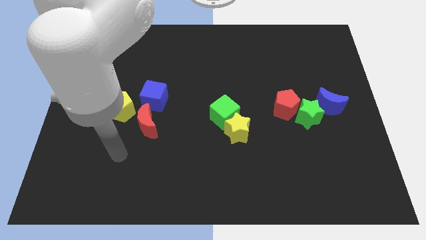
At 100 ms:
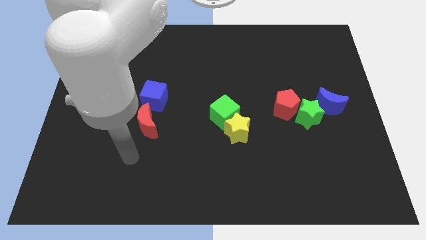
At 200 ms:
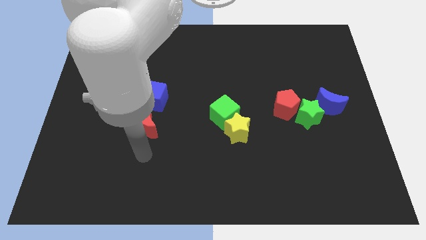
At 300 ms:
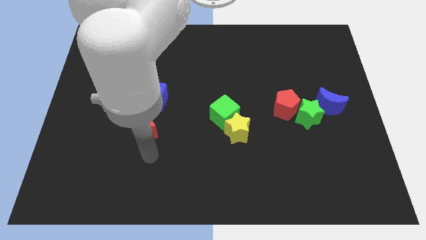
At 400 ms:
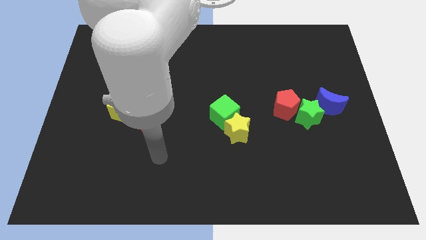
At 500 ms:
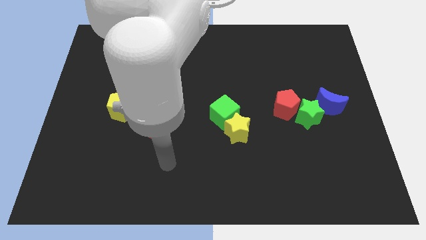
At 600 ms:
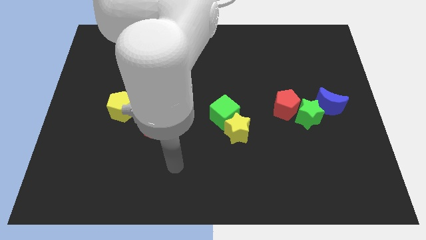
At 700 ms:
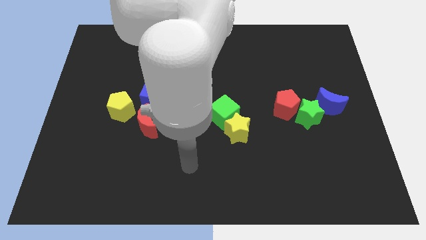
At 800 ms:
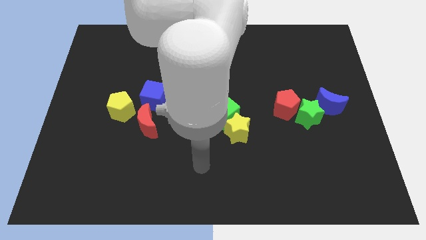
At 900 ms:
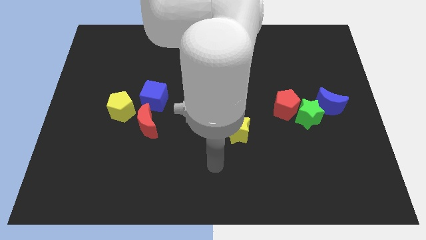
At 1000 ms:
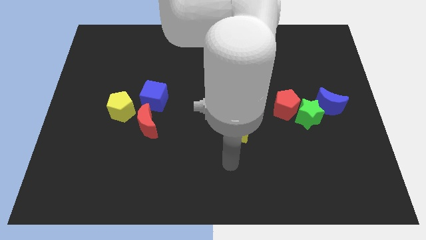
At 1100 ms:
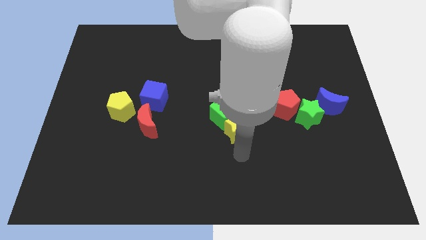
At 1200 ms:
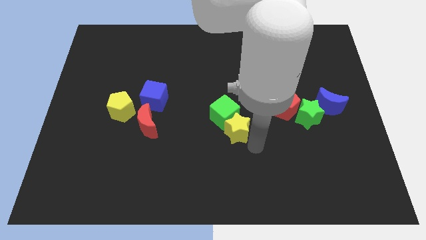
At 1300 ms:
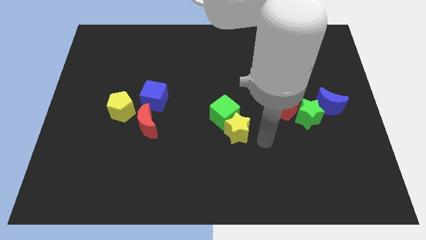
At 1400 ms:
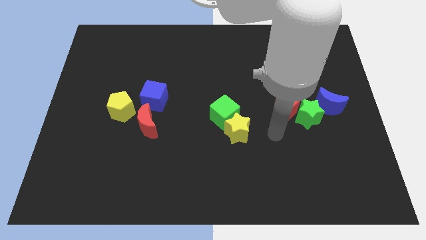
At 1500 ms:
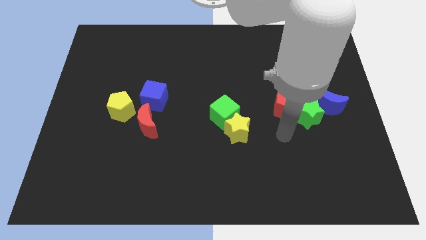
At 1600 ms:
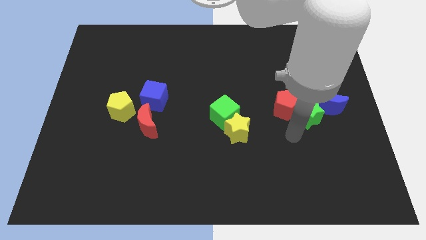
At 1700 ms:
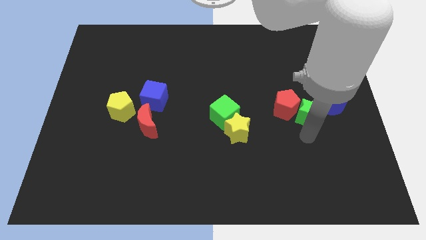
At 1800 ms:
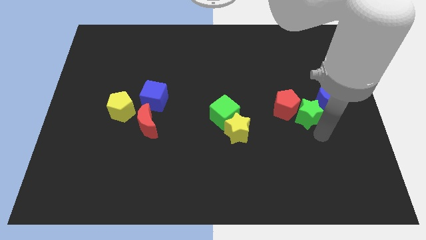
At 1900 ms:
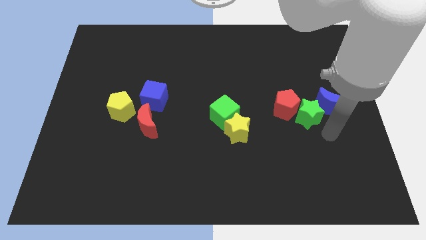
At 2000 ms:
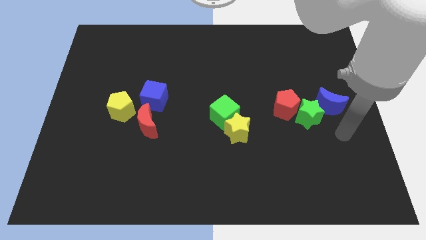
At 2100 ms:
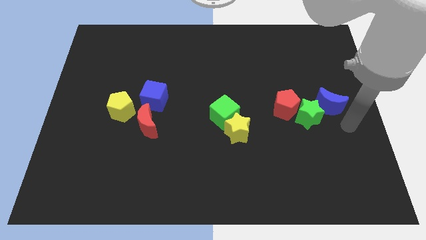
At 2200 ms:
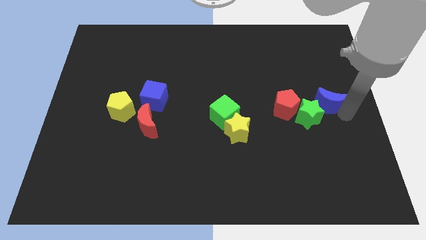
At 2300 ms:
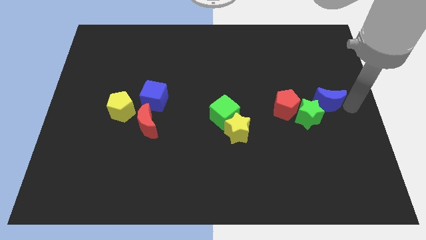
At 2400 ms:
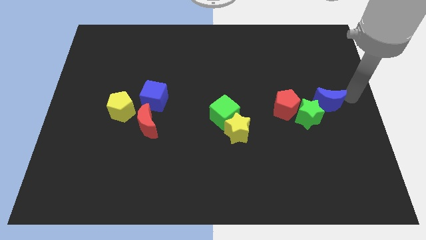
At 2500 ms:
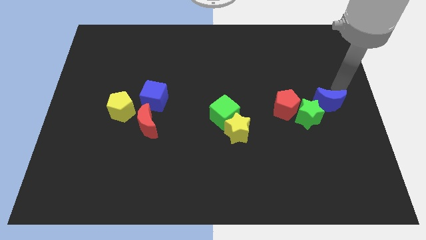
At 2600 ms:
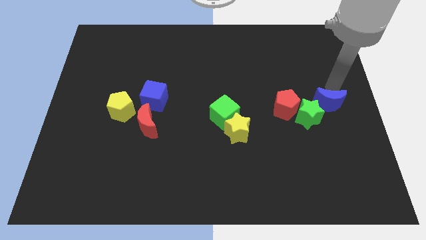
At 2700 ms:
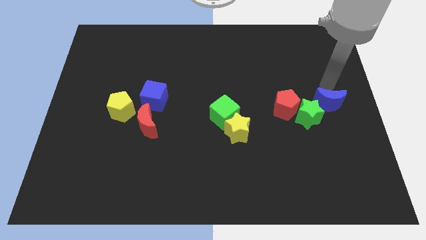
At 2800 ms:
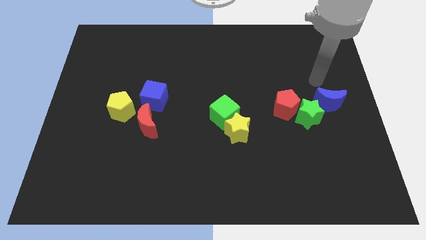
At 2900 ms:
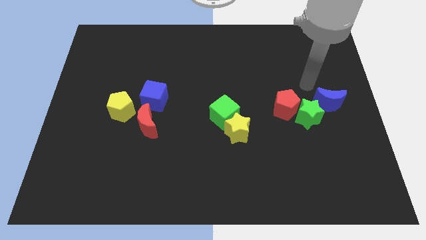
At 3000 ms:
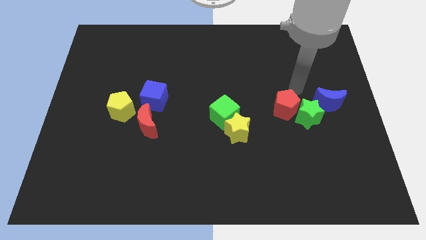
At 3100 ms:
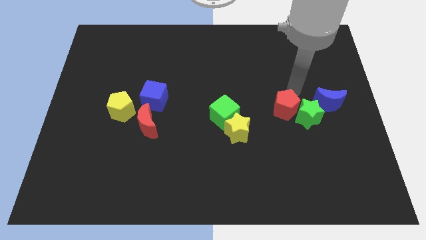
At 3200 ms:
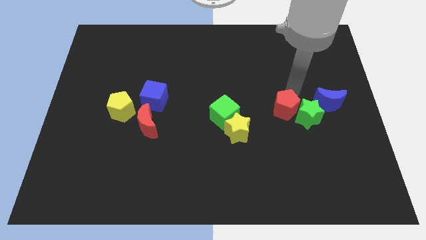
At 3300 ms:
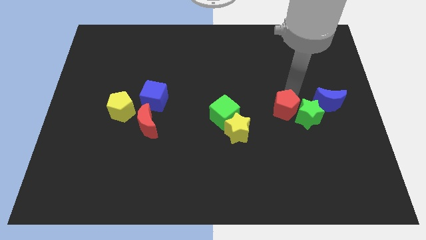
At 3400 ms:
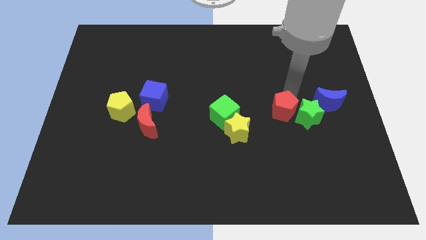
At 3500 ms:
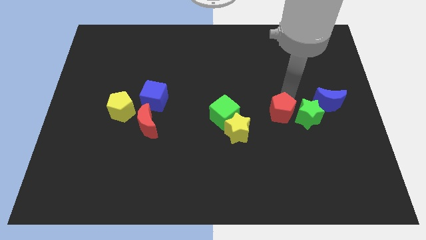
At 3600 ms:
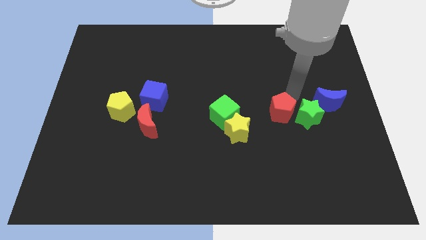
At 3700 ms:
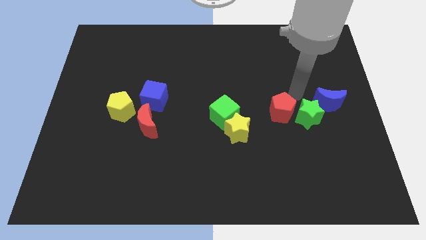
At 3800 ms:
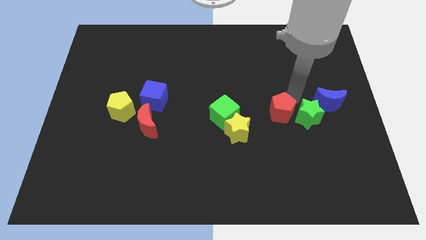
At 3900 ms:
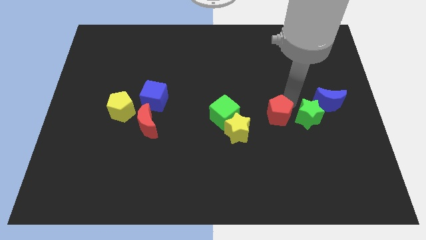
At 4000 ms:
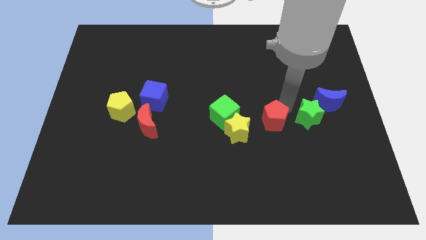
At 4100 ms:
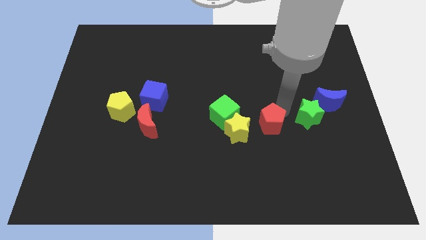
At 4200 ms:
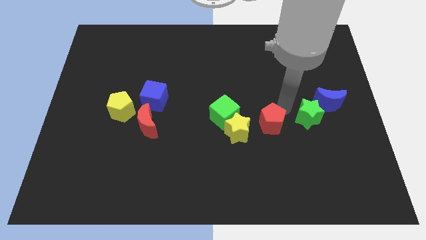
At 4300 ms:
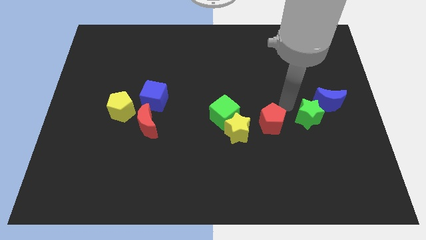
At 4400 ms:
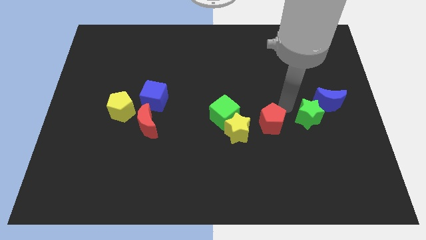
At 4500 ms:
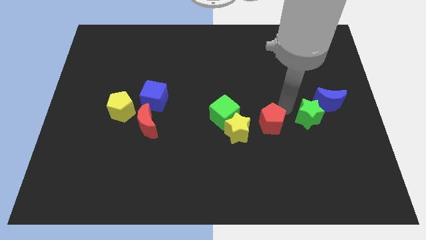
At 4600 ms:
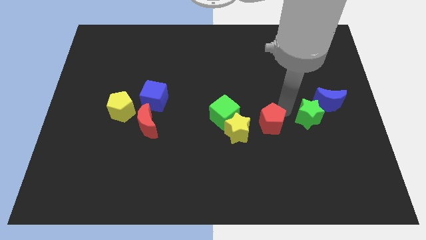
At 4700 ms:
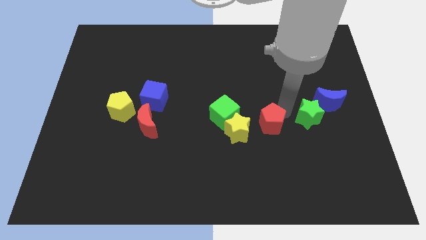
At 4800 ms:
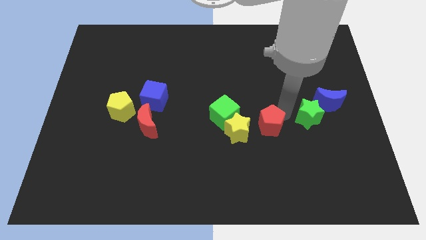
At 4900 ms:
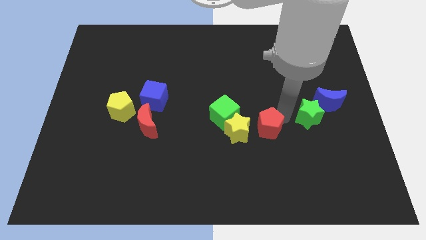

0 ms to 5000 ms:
slide the red pentagon a little downwards and left diagonally

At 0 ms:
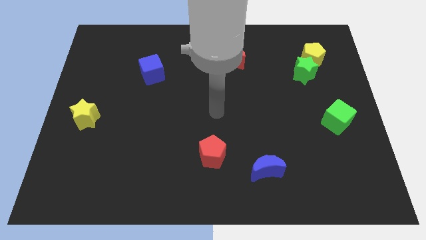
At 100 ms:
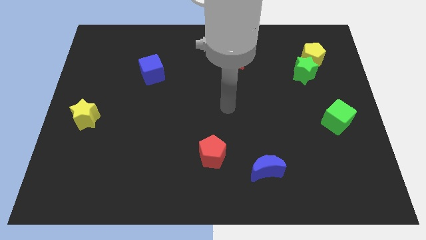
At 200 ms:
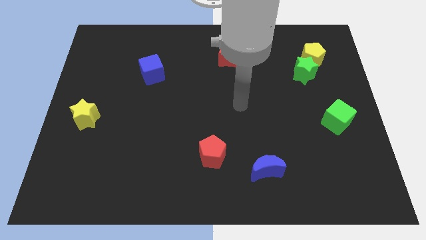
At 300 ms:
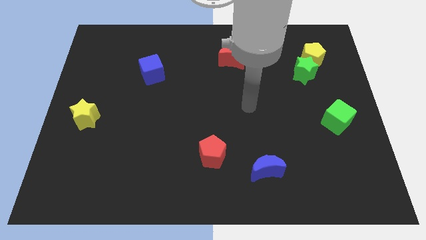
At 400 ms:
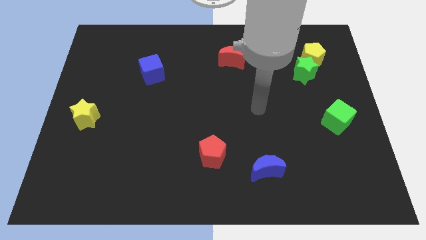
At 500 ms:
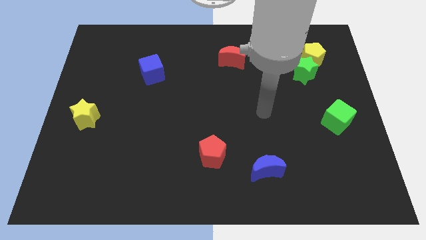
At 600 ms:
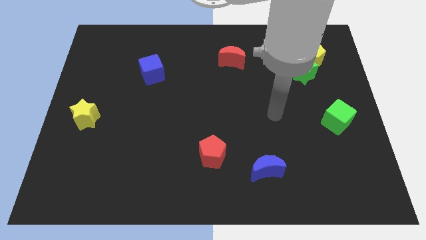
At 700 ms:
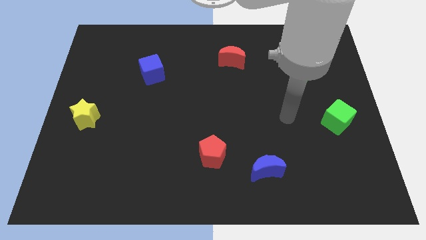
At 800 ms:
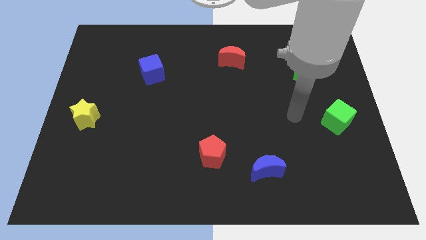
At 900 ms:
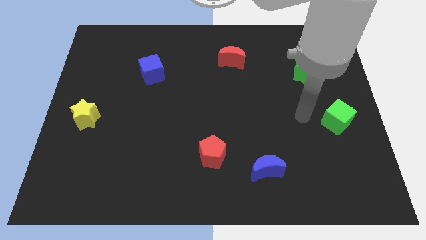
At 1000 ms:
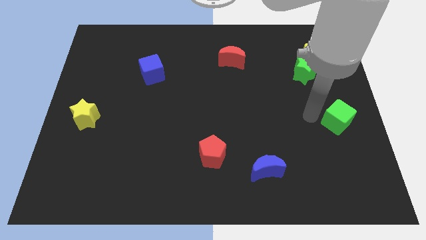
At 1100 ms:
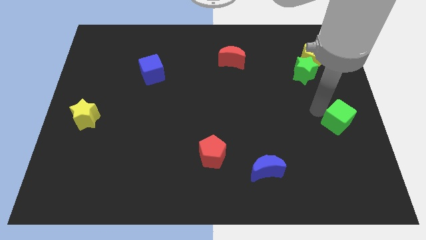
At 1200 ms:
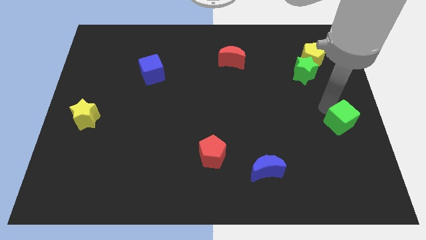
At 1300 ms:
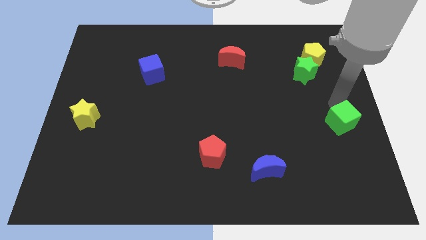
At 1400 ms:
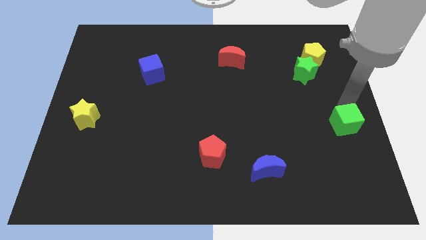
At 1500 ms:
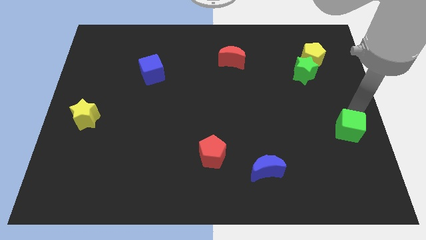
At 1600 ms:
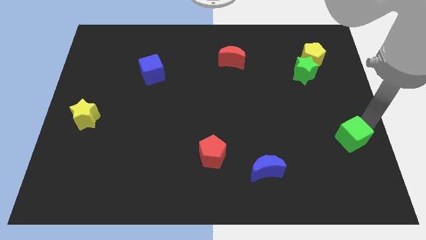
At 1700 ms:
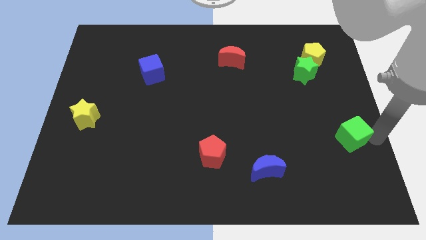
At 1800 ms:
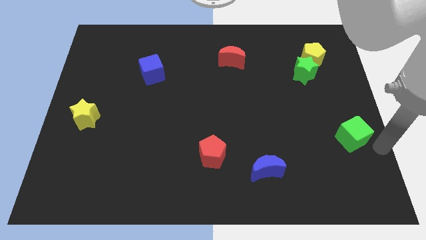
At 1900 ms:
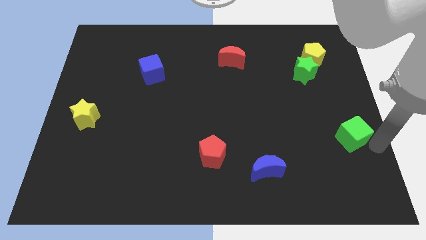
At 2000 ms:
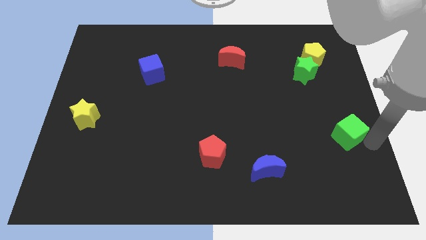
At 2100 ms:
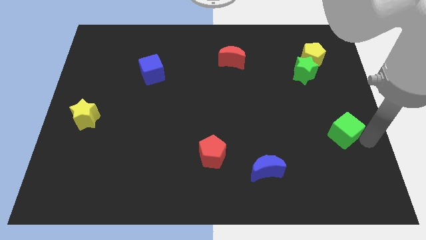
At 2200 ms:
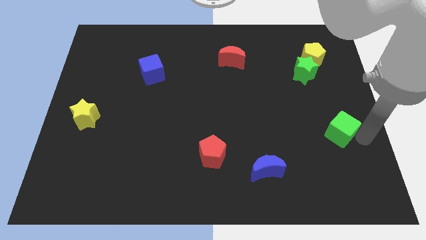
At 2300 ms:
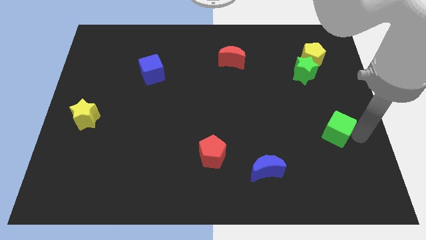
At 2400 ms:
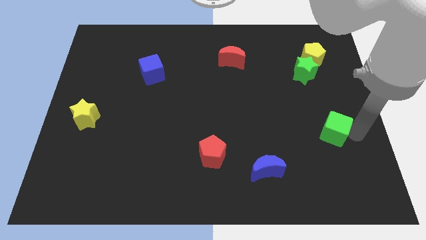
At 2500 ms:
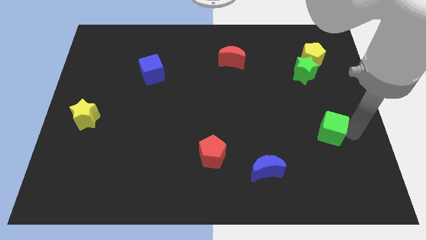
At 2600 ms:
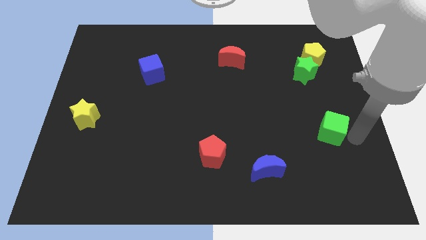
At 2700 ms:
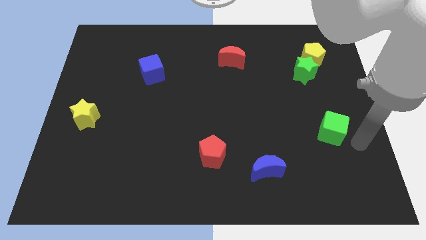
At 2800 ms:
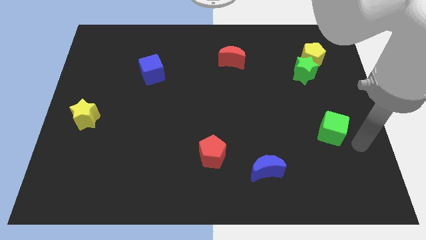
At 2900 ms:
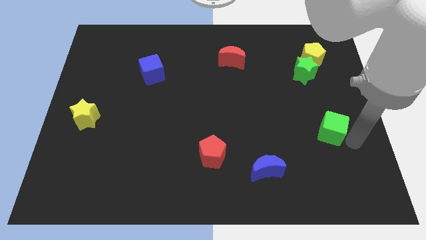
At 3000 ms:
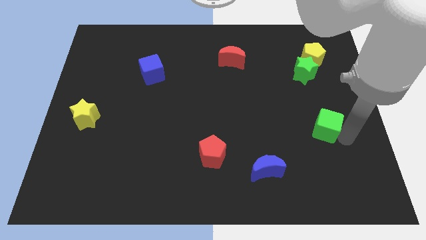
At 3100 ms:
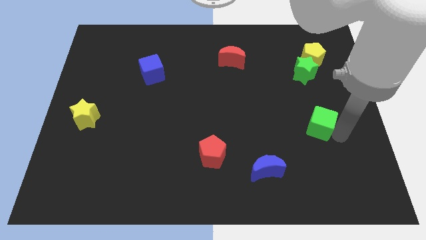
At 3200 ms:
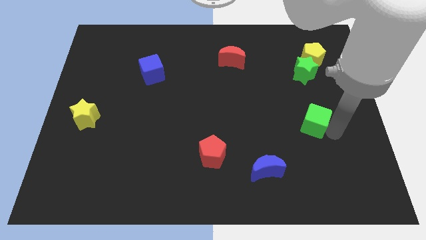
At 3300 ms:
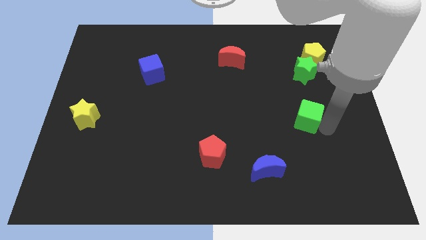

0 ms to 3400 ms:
move the green cube somewhat to the left

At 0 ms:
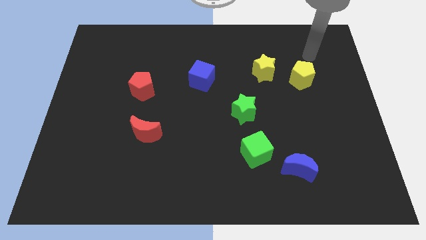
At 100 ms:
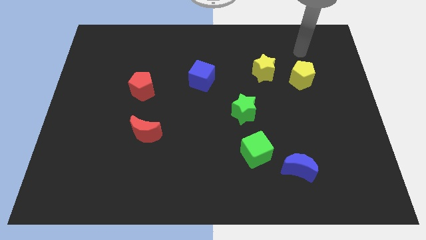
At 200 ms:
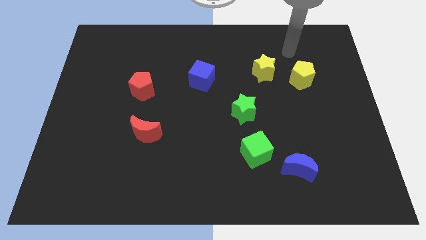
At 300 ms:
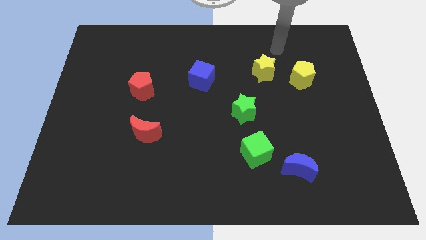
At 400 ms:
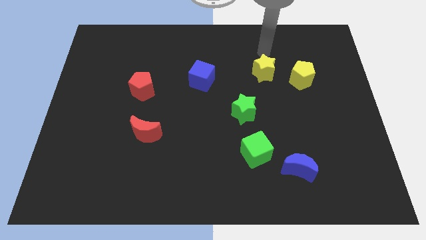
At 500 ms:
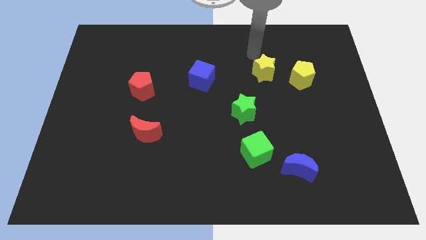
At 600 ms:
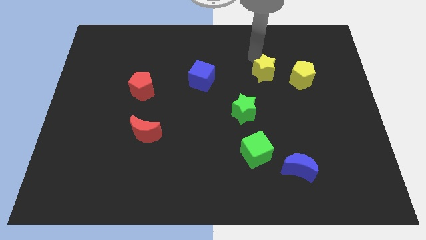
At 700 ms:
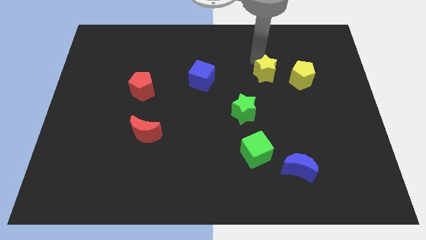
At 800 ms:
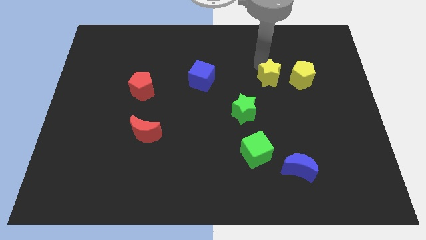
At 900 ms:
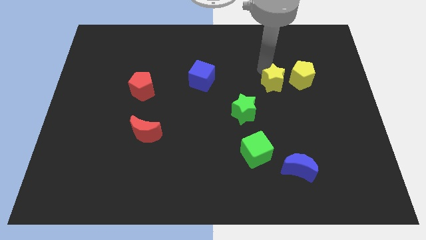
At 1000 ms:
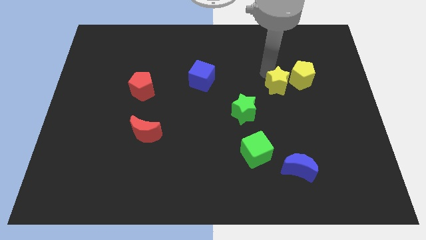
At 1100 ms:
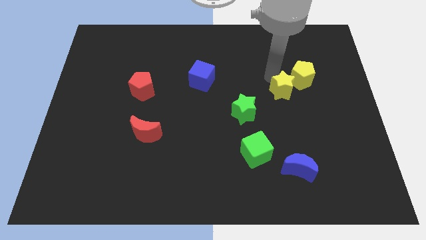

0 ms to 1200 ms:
push the yellow star a little downwards and then right
